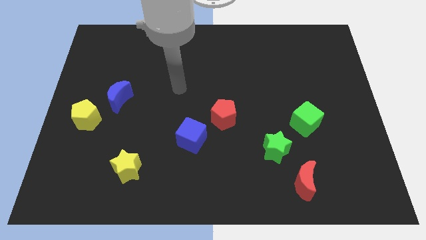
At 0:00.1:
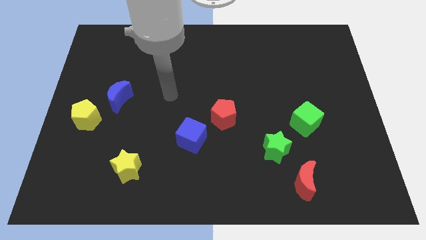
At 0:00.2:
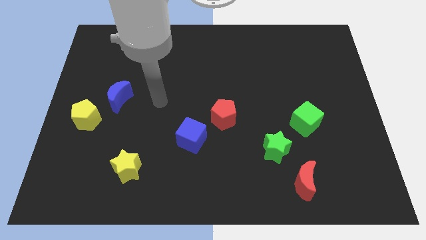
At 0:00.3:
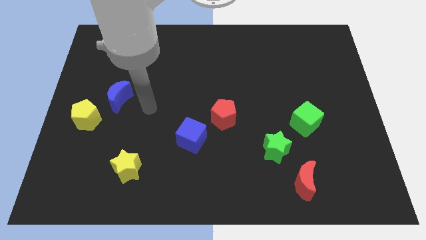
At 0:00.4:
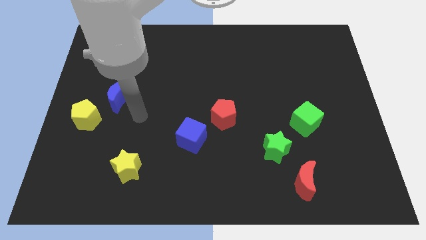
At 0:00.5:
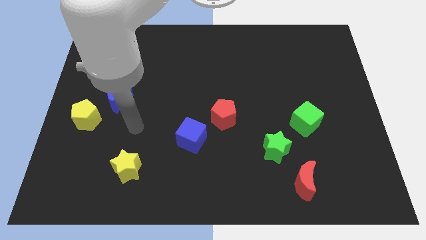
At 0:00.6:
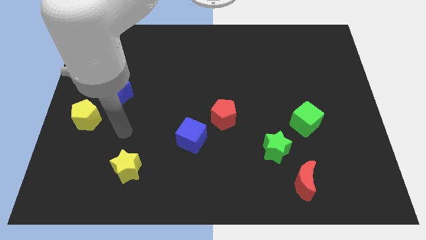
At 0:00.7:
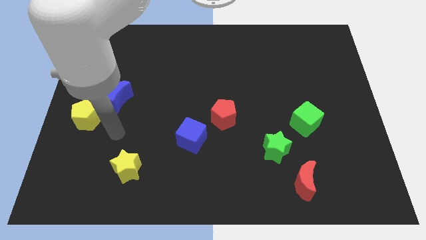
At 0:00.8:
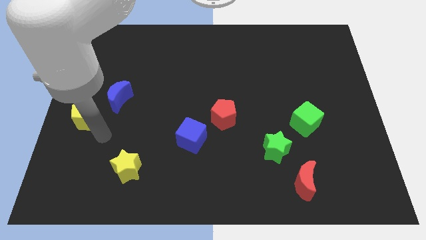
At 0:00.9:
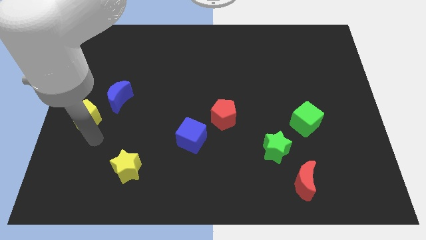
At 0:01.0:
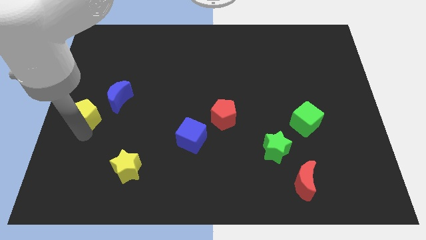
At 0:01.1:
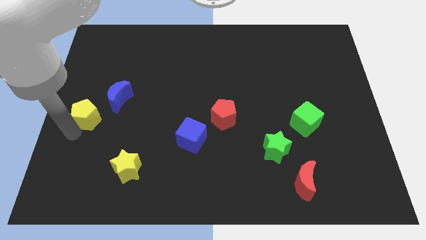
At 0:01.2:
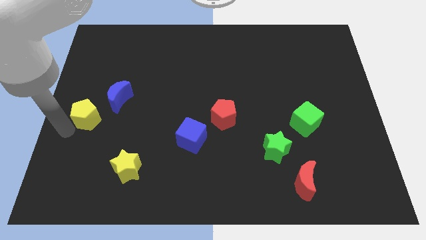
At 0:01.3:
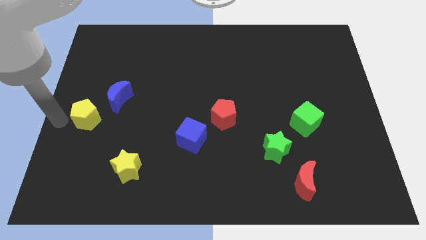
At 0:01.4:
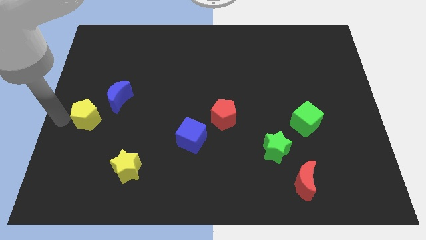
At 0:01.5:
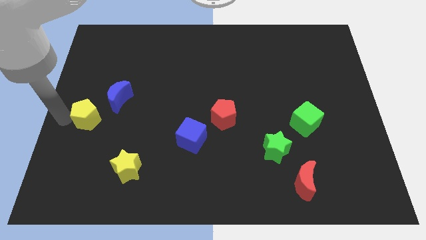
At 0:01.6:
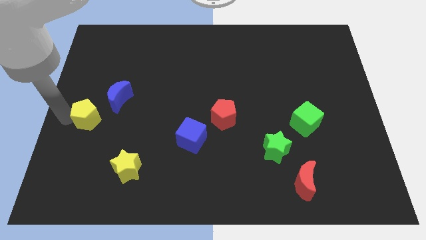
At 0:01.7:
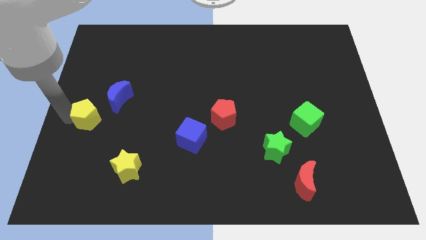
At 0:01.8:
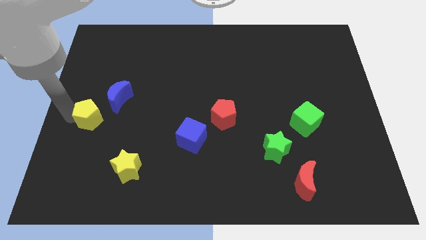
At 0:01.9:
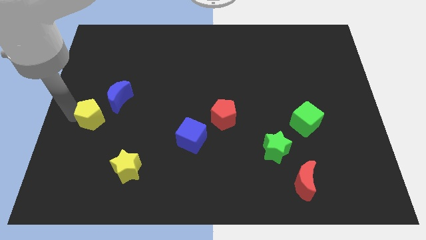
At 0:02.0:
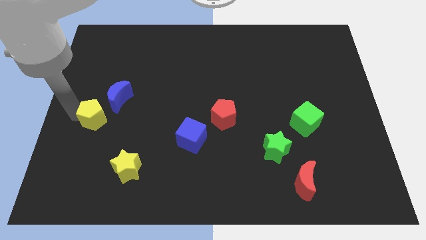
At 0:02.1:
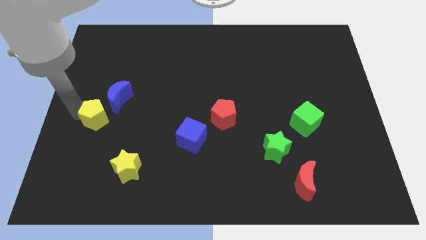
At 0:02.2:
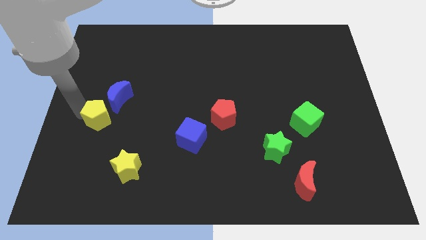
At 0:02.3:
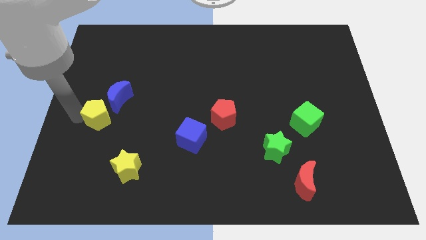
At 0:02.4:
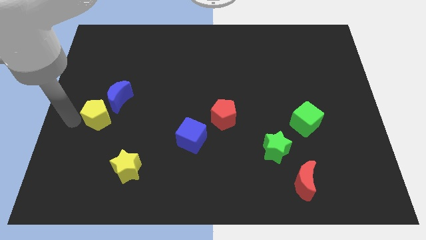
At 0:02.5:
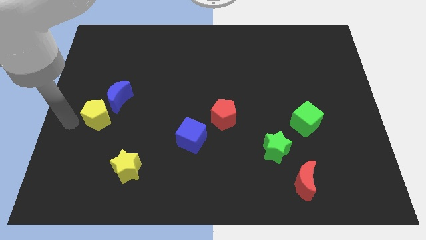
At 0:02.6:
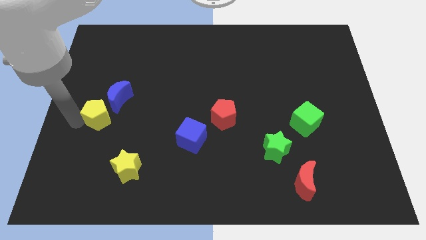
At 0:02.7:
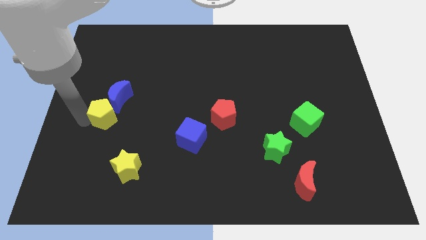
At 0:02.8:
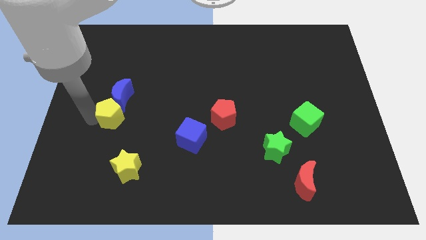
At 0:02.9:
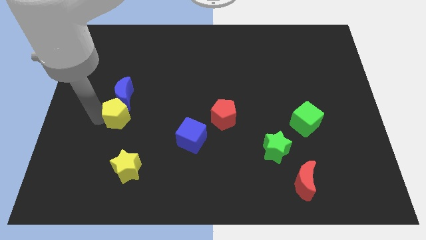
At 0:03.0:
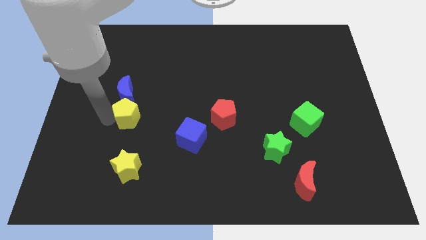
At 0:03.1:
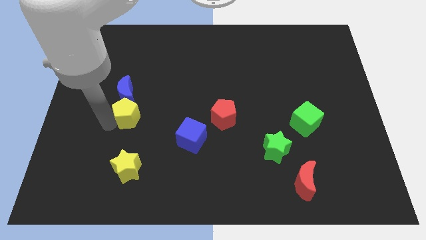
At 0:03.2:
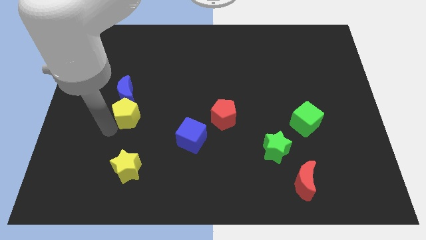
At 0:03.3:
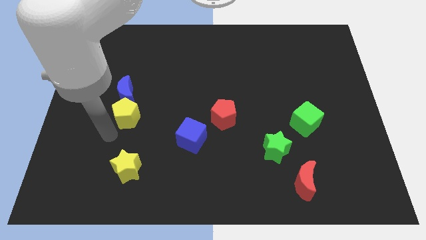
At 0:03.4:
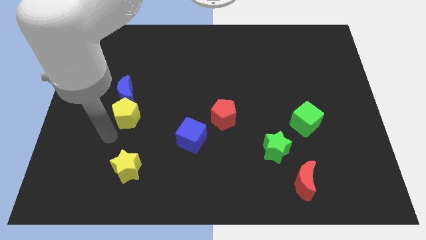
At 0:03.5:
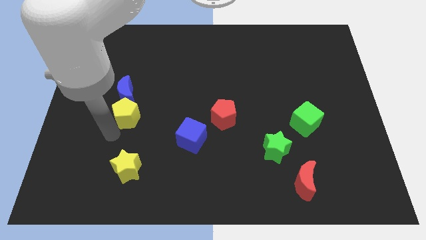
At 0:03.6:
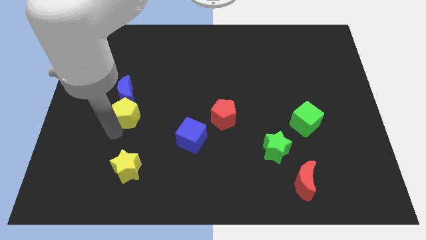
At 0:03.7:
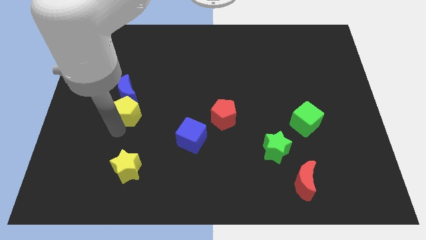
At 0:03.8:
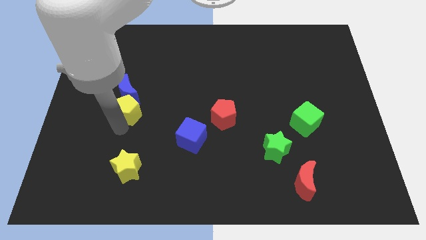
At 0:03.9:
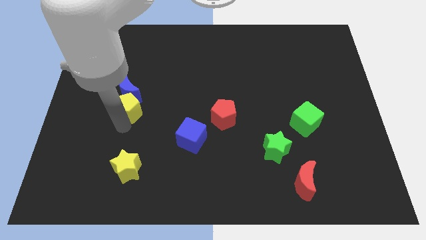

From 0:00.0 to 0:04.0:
slightly slide the yellow pentagon diagonally up and right

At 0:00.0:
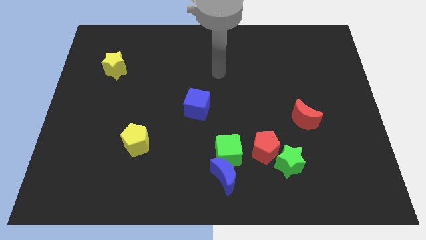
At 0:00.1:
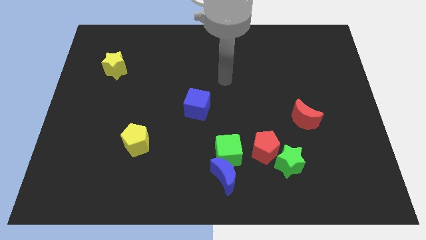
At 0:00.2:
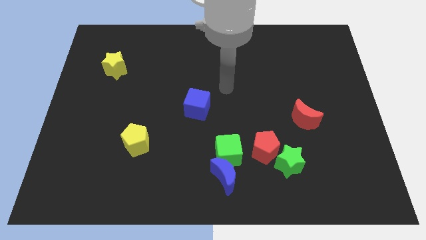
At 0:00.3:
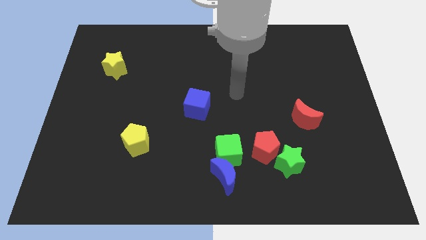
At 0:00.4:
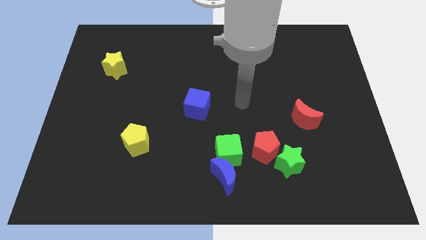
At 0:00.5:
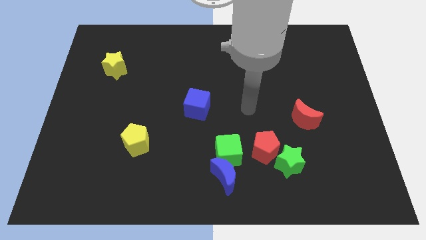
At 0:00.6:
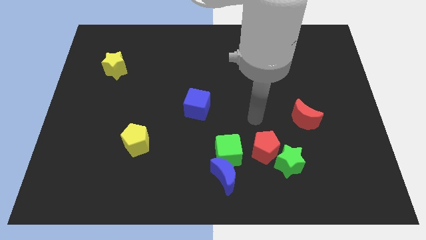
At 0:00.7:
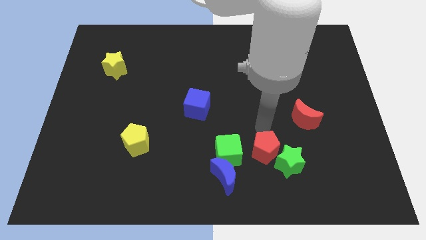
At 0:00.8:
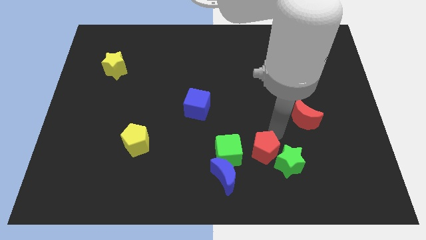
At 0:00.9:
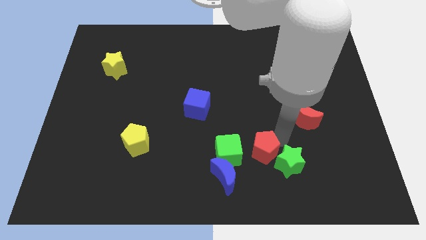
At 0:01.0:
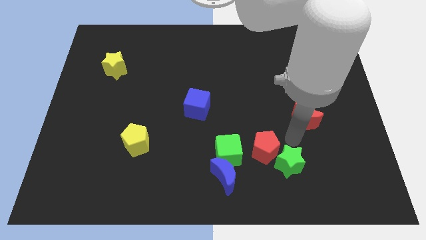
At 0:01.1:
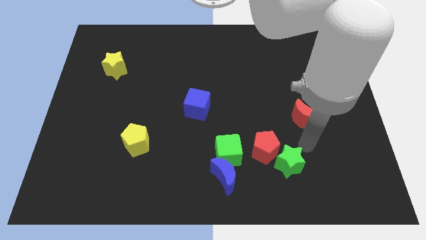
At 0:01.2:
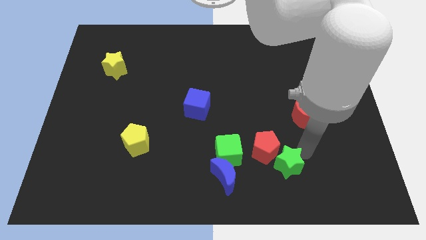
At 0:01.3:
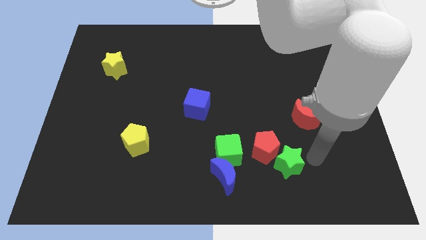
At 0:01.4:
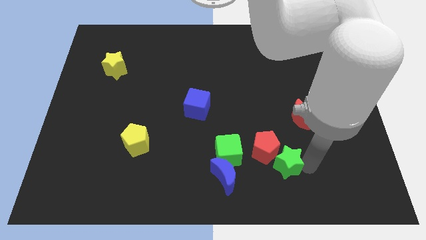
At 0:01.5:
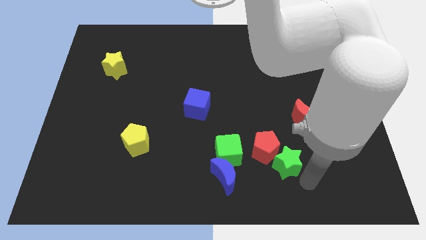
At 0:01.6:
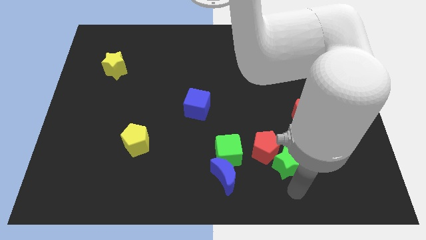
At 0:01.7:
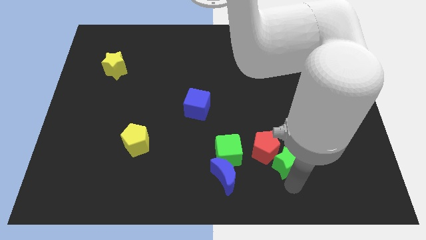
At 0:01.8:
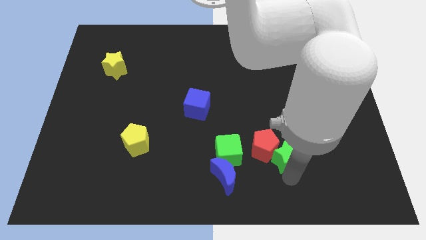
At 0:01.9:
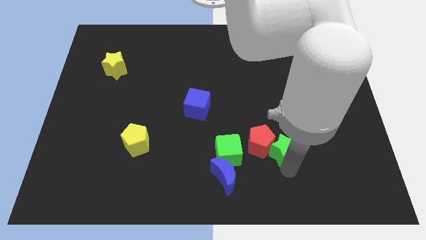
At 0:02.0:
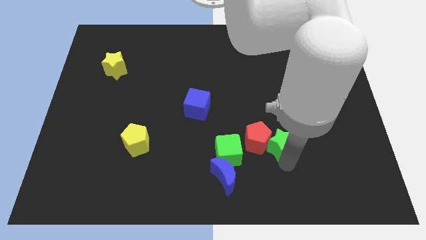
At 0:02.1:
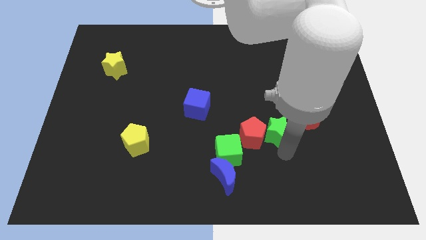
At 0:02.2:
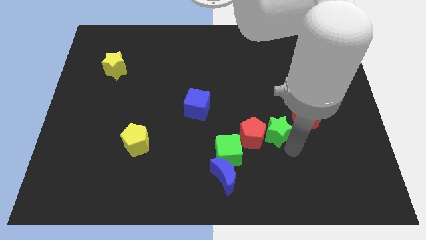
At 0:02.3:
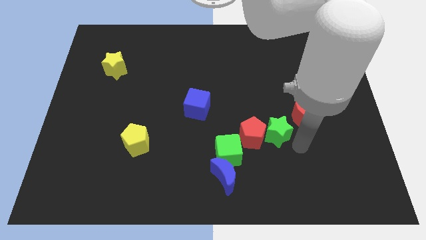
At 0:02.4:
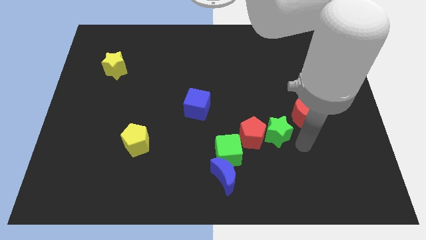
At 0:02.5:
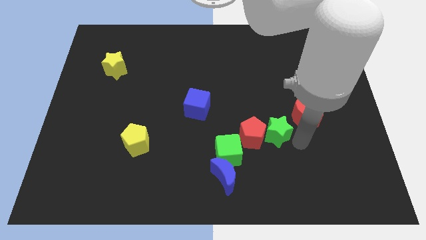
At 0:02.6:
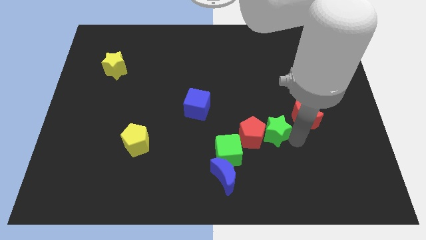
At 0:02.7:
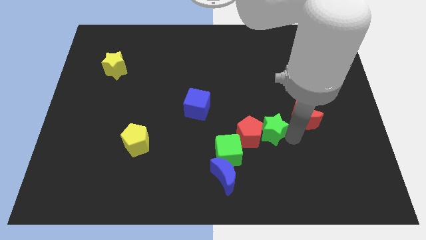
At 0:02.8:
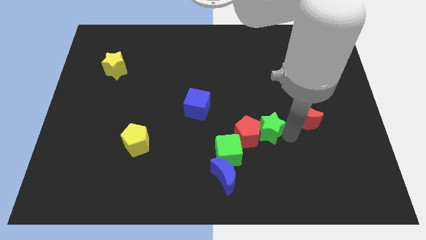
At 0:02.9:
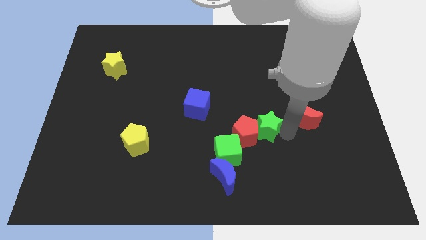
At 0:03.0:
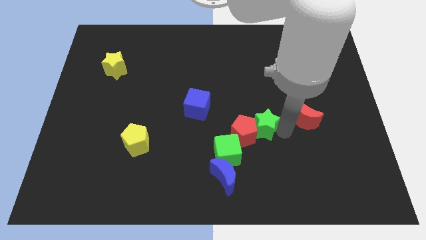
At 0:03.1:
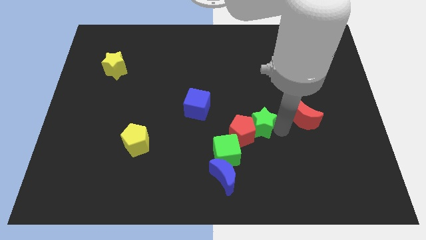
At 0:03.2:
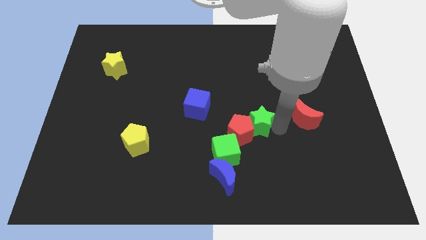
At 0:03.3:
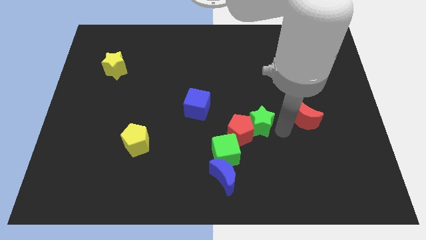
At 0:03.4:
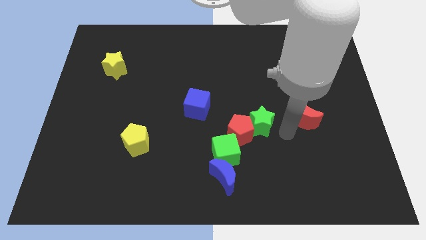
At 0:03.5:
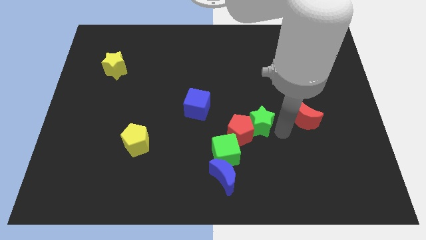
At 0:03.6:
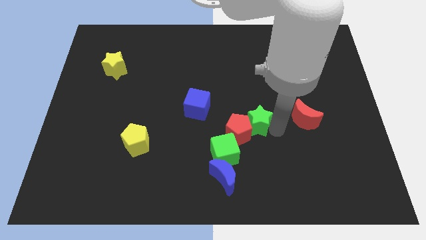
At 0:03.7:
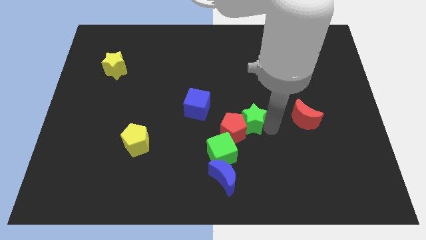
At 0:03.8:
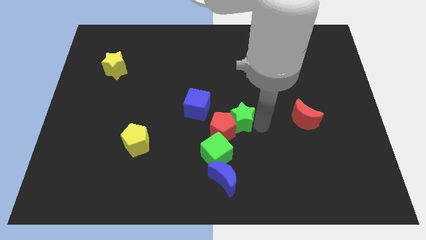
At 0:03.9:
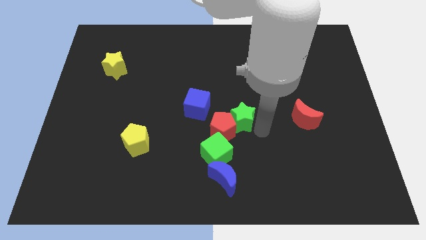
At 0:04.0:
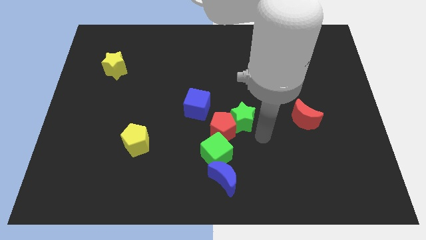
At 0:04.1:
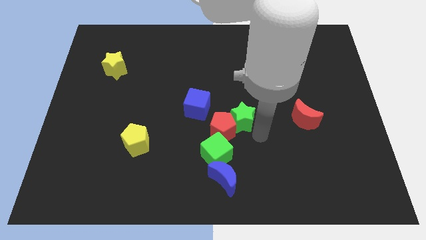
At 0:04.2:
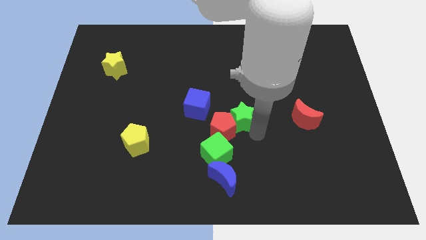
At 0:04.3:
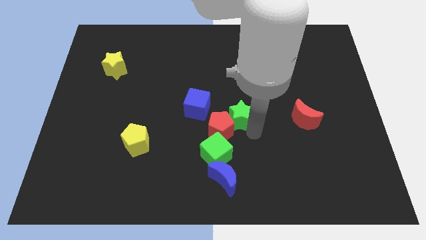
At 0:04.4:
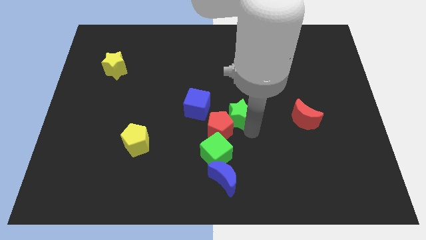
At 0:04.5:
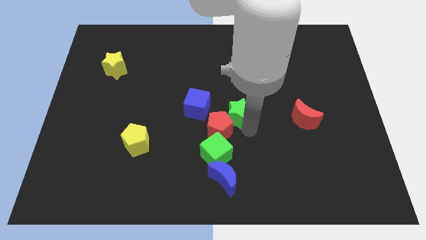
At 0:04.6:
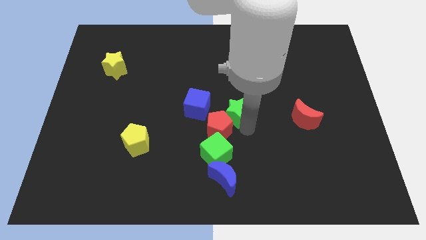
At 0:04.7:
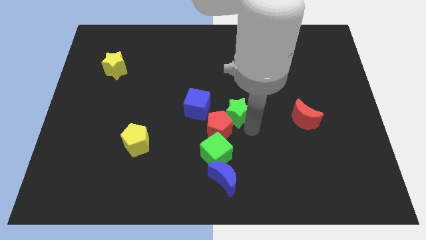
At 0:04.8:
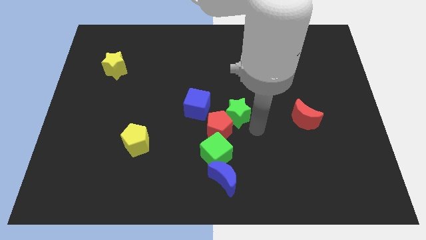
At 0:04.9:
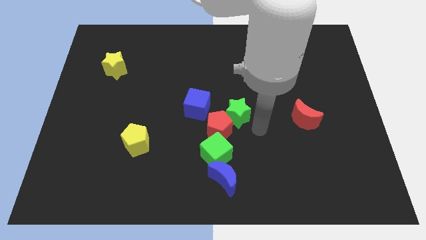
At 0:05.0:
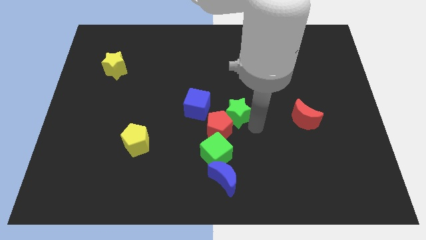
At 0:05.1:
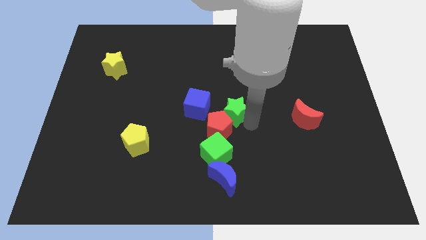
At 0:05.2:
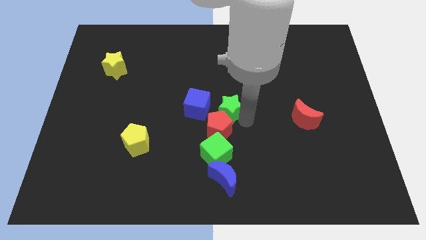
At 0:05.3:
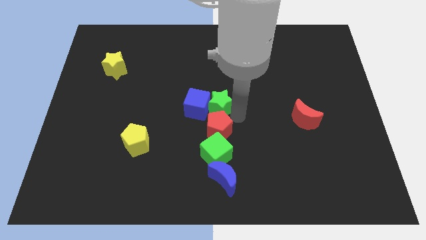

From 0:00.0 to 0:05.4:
move the green star upwards and then left
